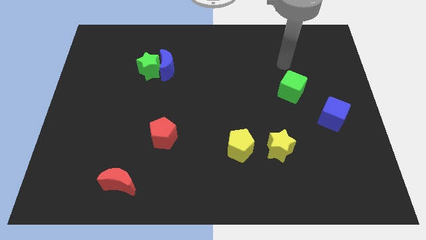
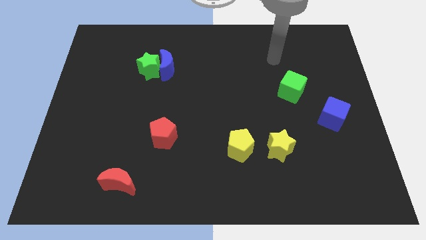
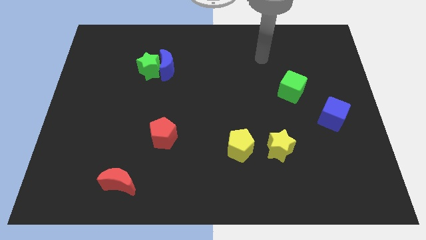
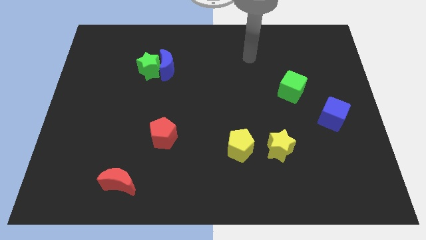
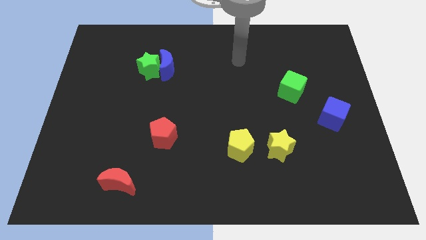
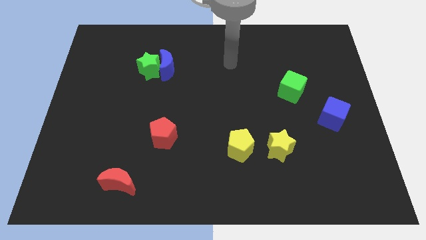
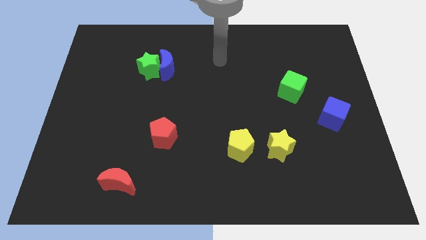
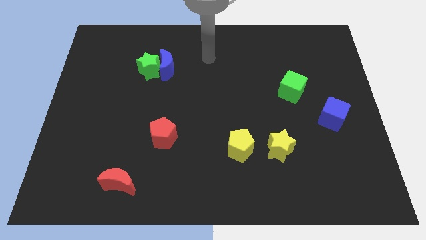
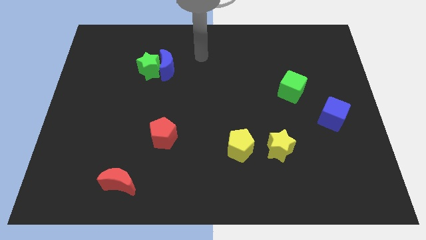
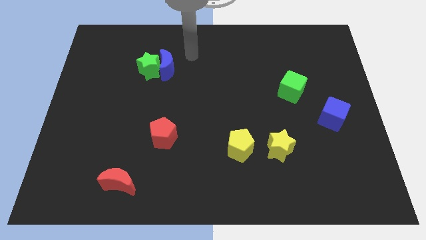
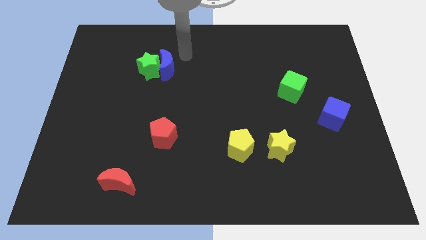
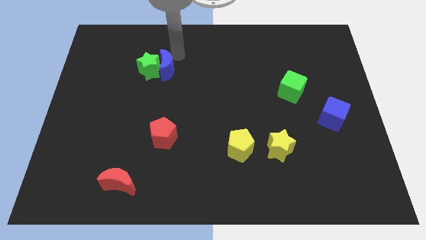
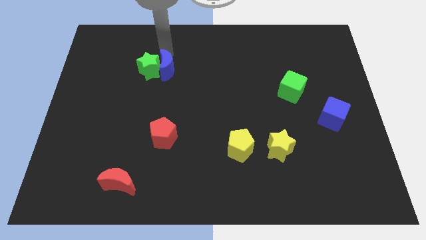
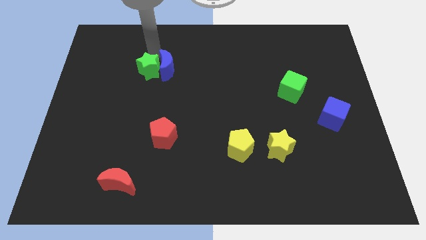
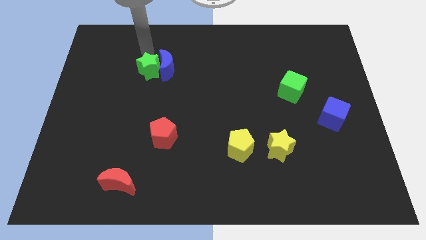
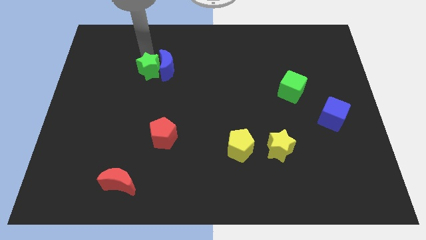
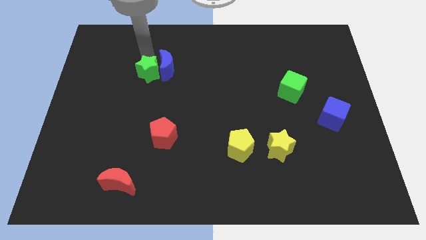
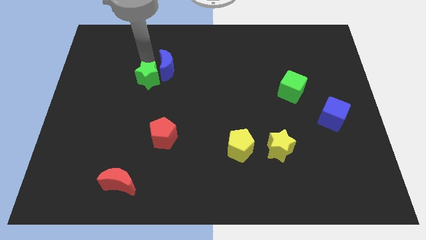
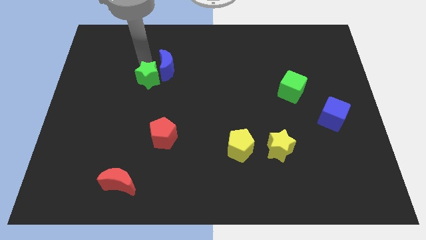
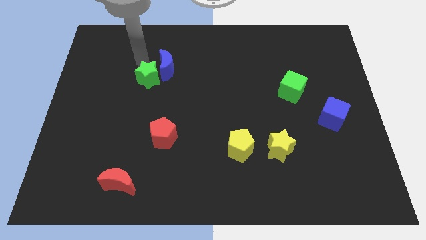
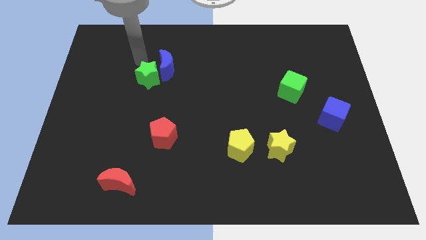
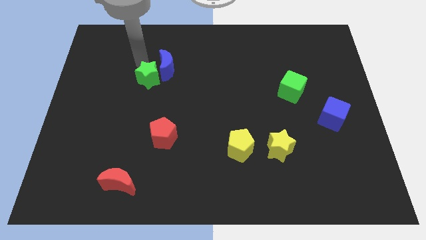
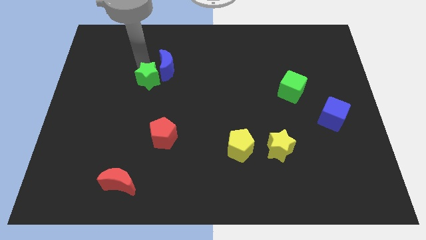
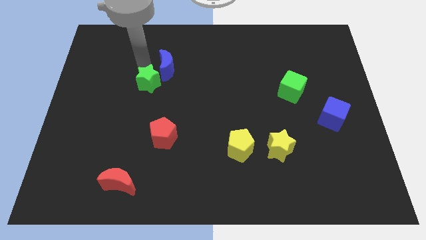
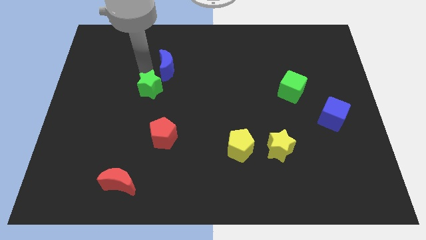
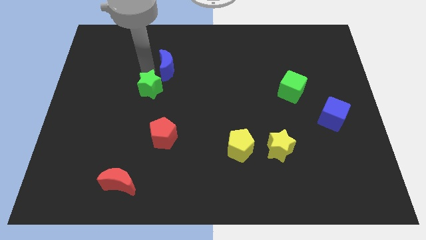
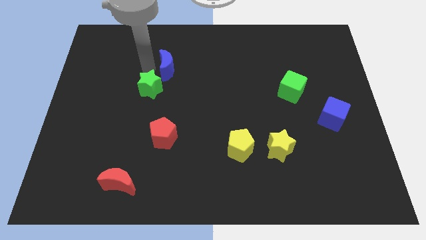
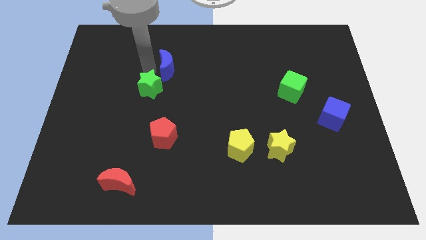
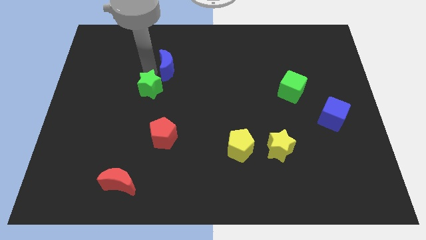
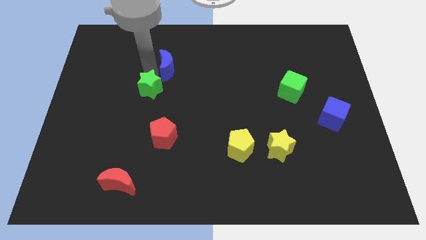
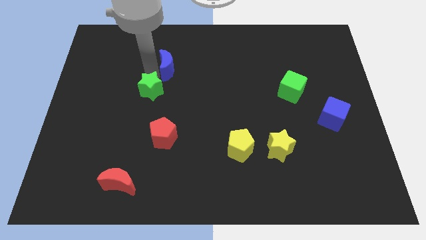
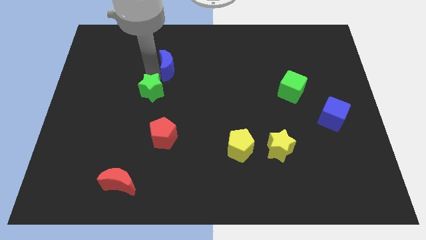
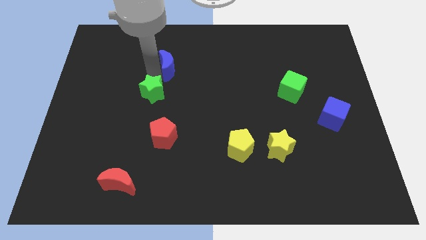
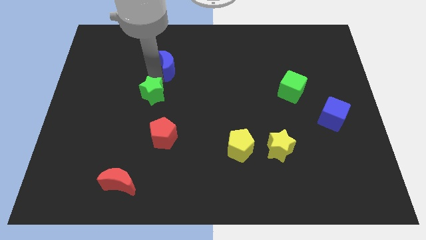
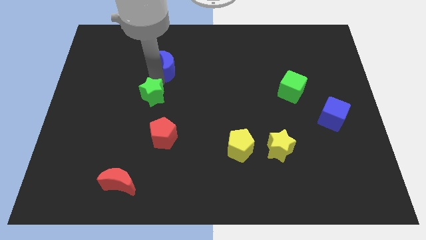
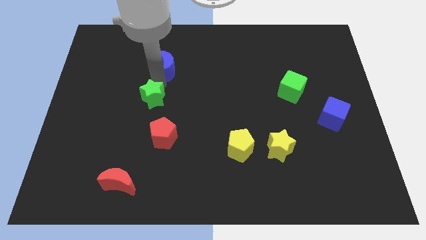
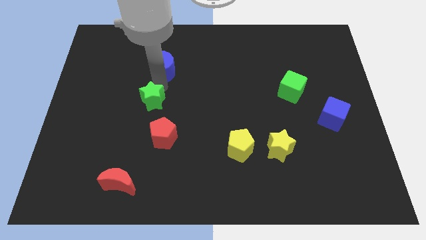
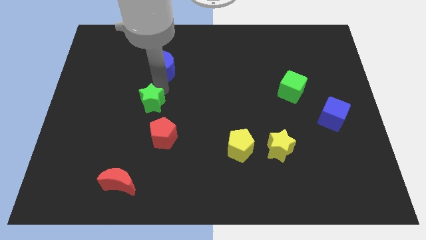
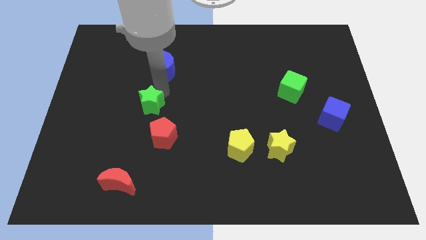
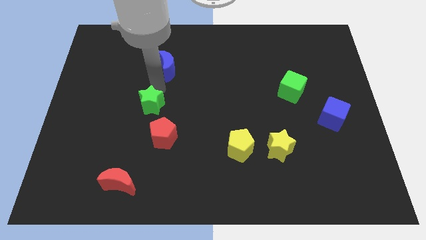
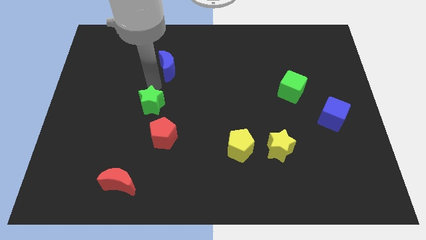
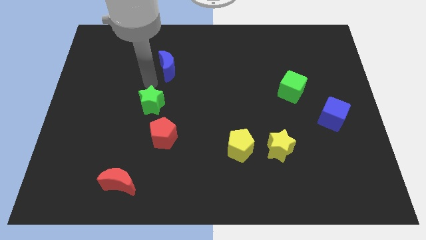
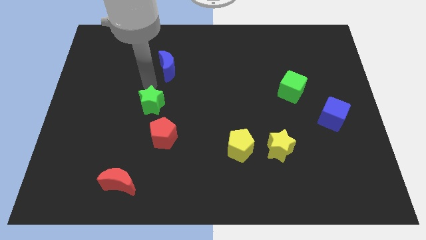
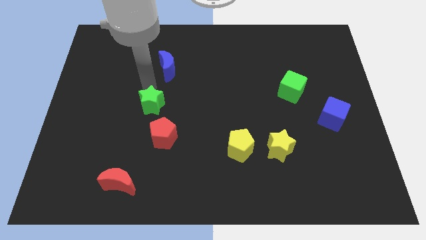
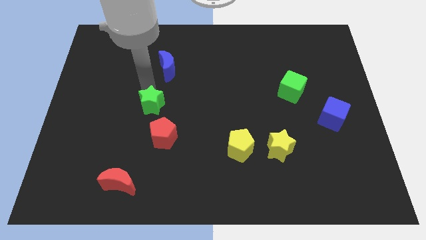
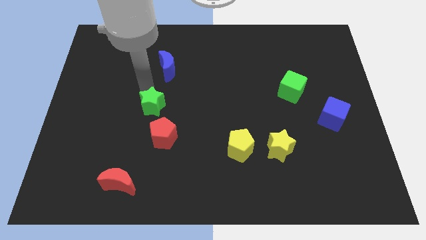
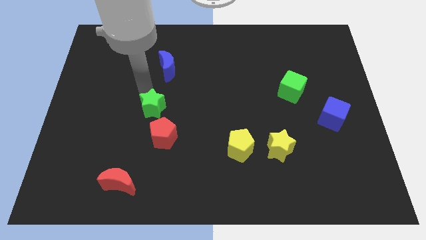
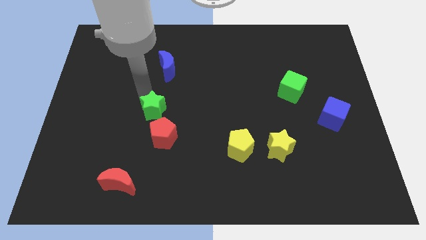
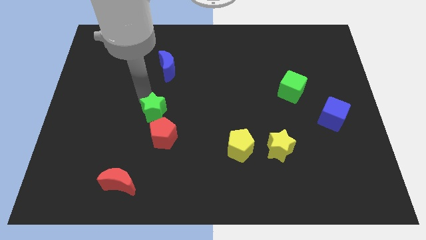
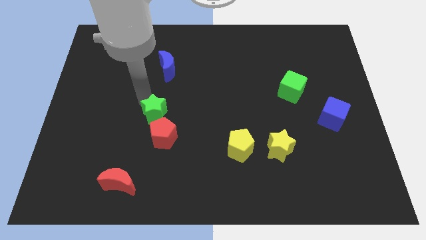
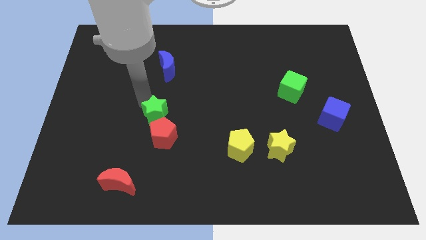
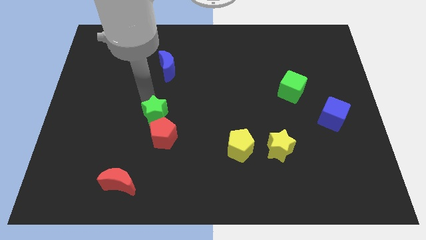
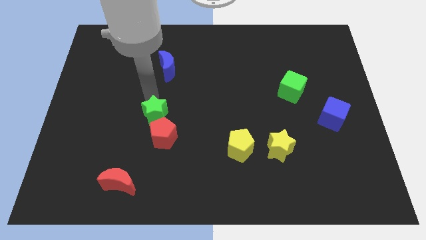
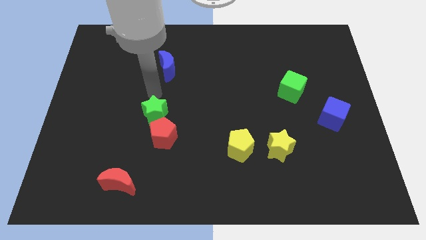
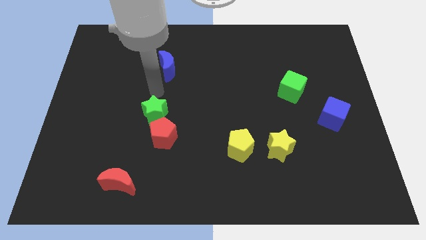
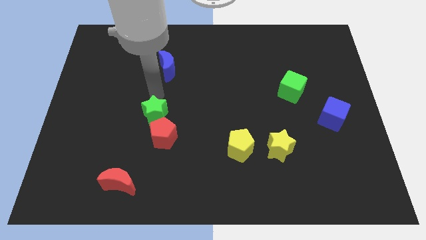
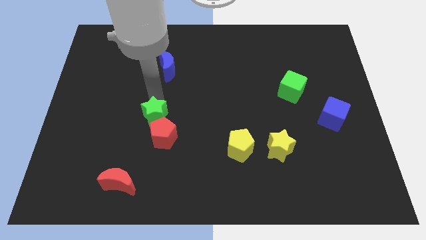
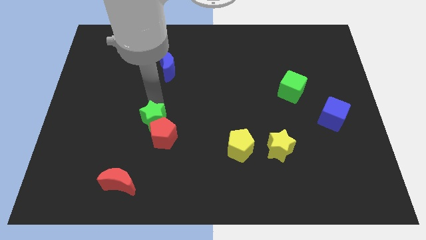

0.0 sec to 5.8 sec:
push the green star next to the red pentagon

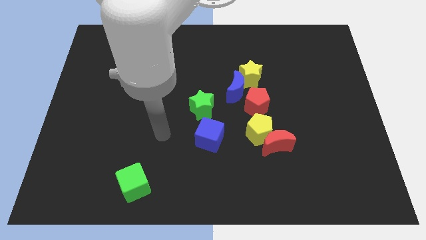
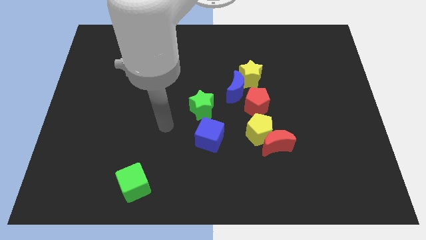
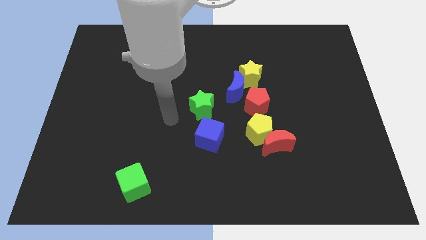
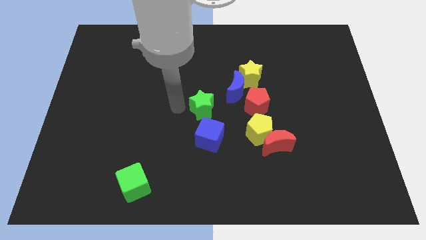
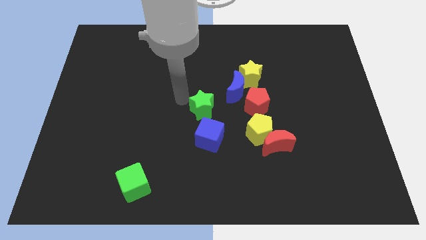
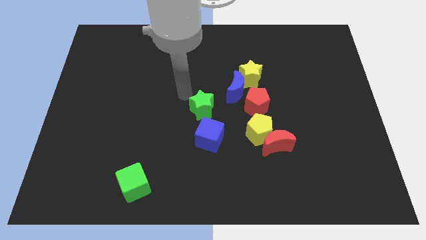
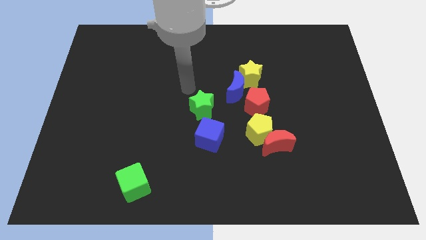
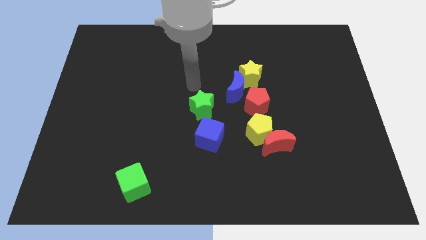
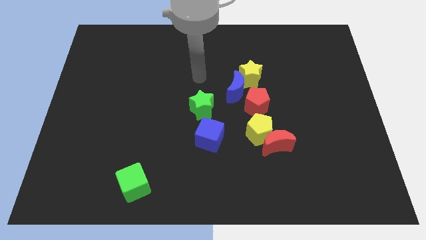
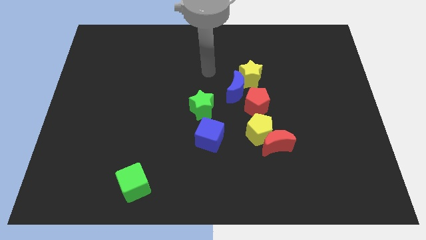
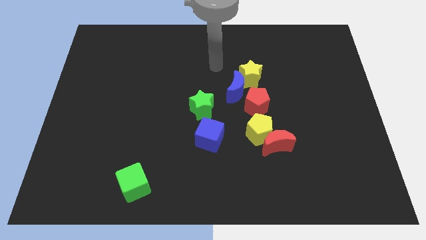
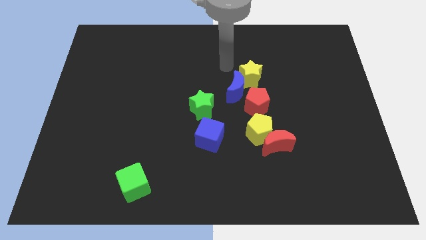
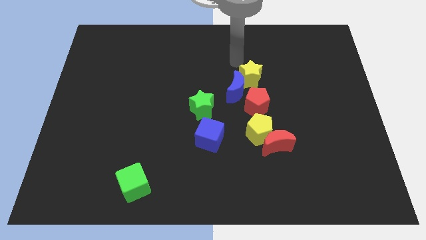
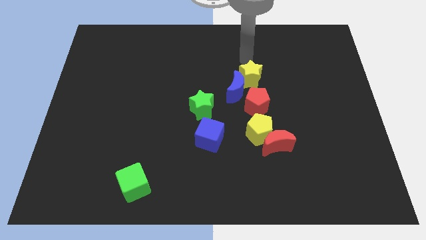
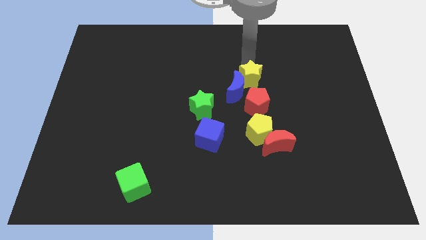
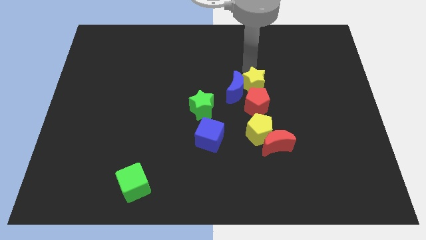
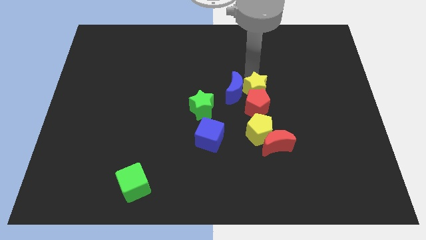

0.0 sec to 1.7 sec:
slide the yellow star towards the red pentagon
